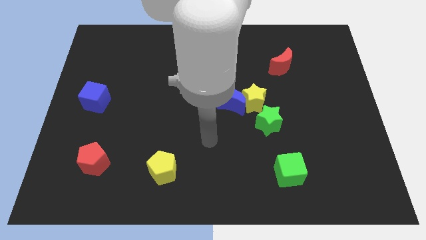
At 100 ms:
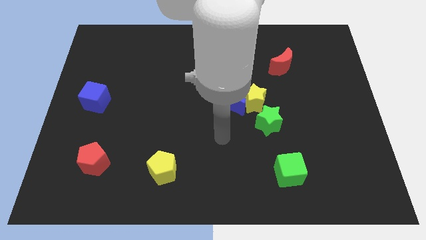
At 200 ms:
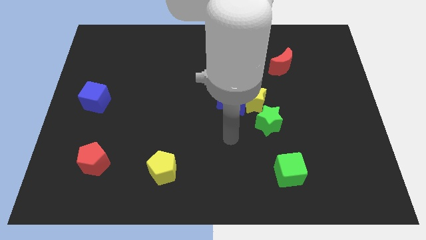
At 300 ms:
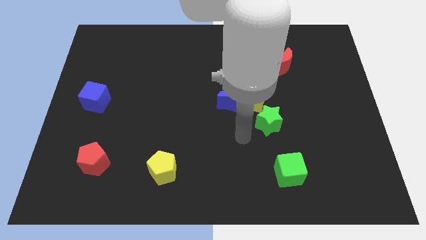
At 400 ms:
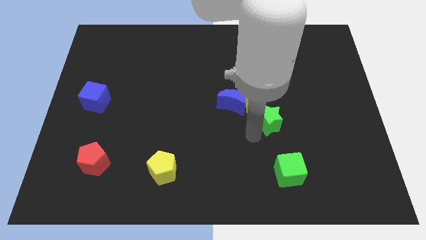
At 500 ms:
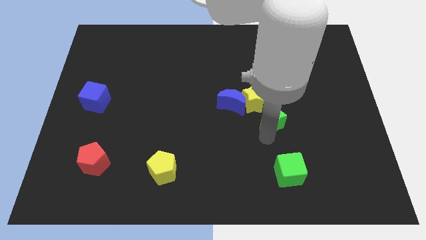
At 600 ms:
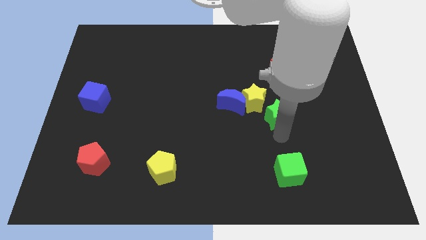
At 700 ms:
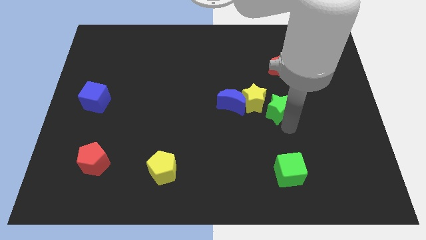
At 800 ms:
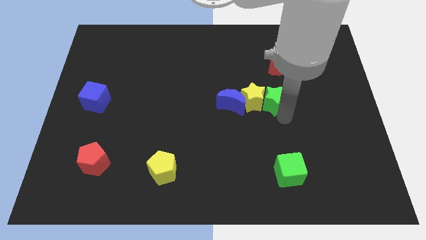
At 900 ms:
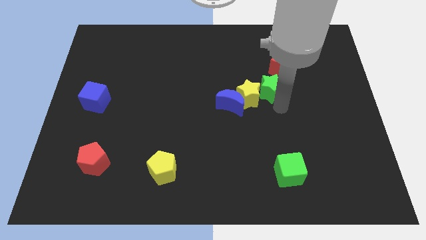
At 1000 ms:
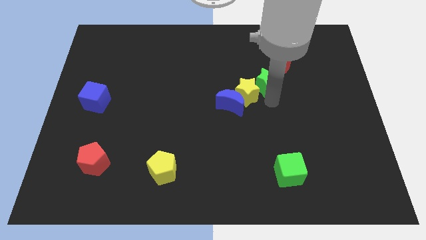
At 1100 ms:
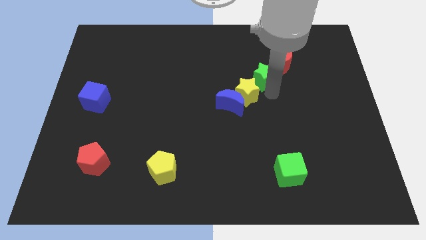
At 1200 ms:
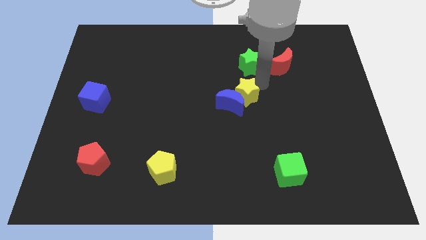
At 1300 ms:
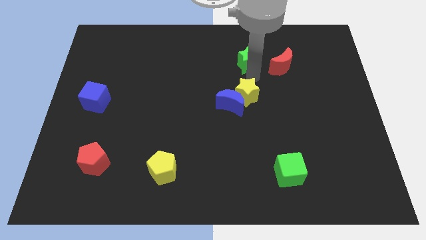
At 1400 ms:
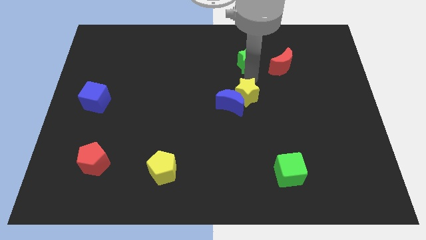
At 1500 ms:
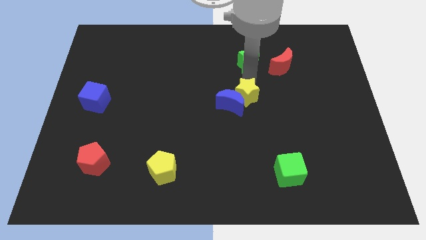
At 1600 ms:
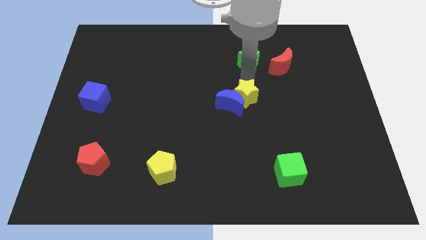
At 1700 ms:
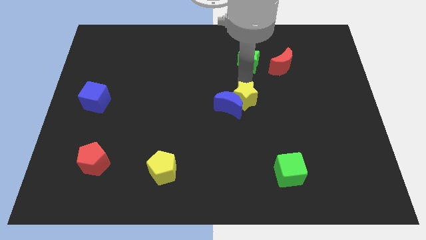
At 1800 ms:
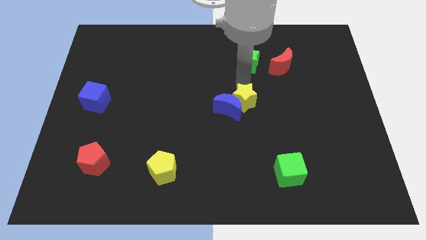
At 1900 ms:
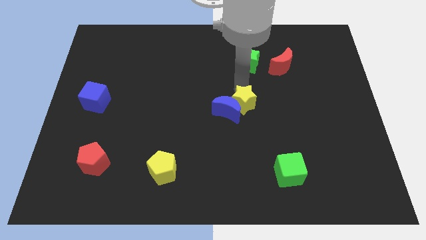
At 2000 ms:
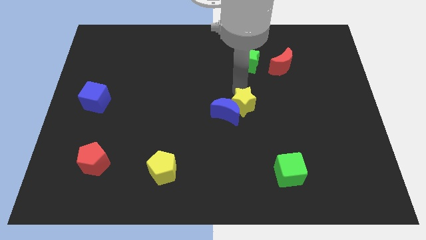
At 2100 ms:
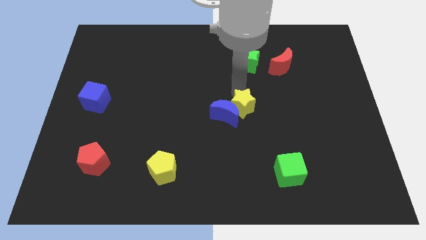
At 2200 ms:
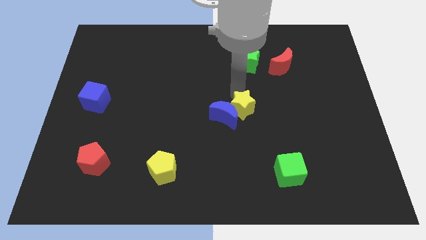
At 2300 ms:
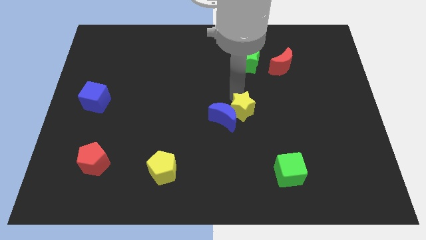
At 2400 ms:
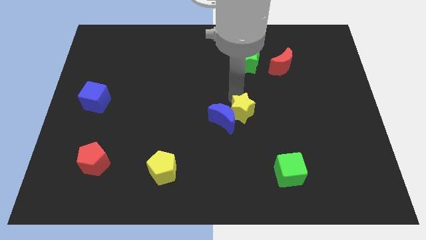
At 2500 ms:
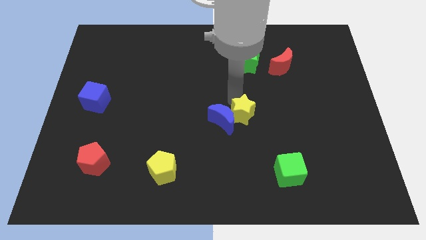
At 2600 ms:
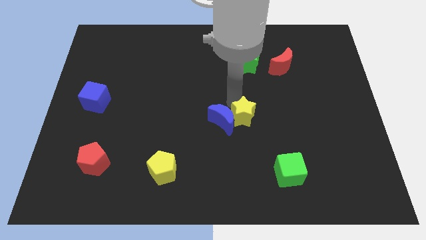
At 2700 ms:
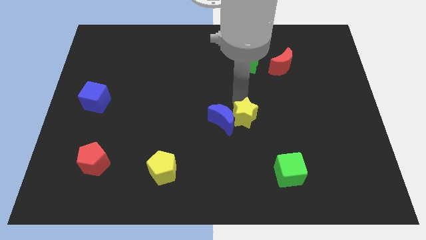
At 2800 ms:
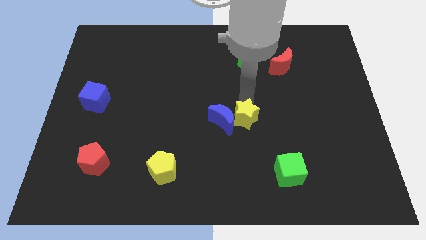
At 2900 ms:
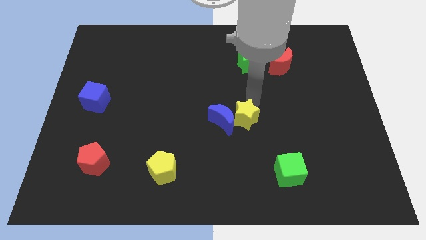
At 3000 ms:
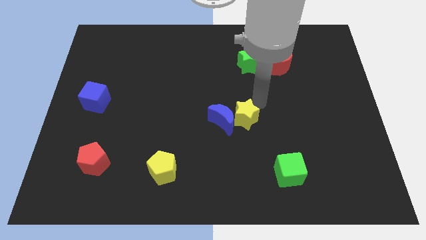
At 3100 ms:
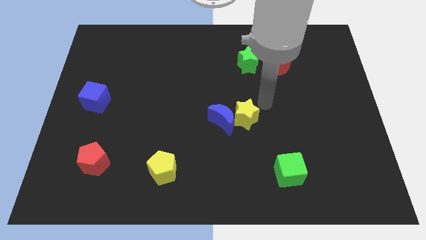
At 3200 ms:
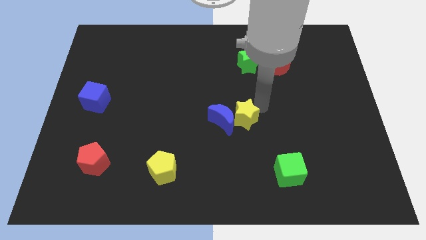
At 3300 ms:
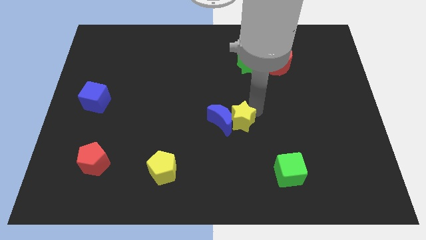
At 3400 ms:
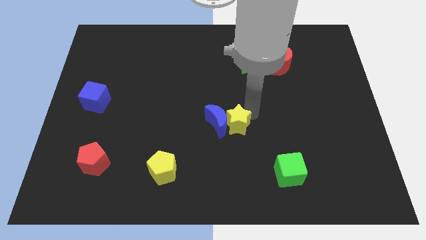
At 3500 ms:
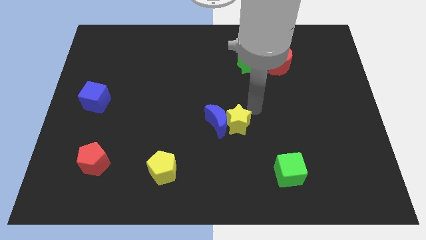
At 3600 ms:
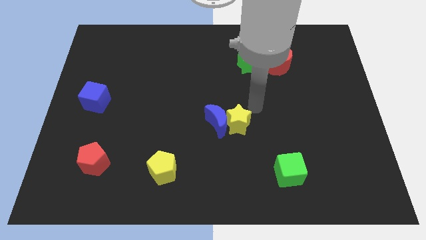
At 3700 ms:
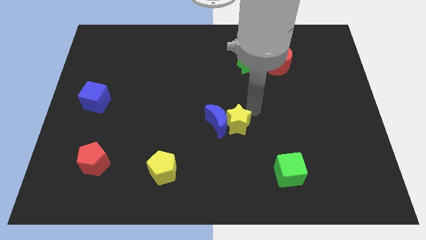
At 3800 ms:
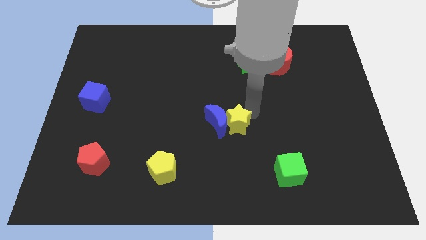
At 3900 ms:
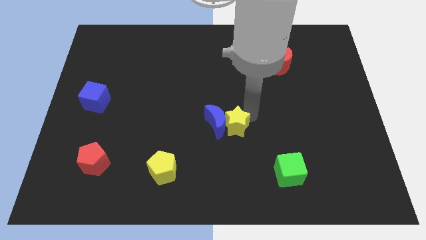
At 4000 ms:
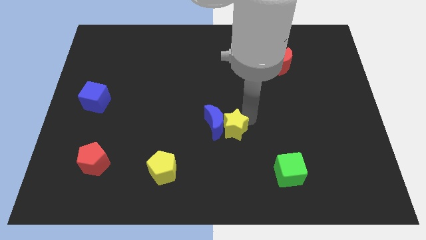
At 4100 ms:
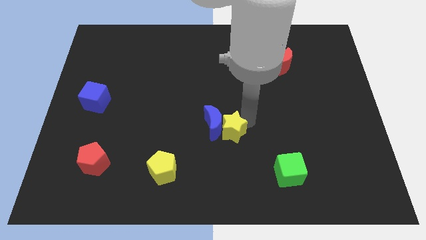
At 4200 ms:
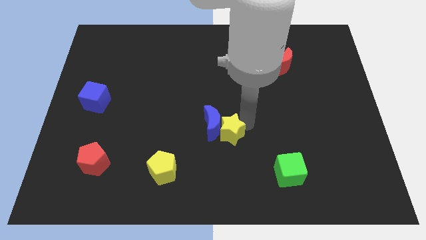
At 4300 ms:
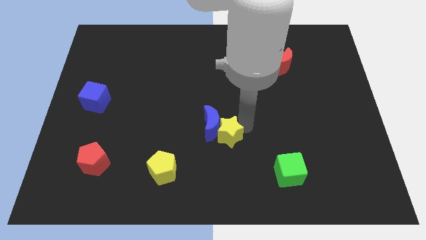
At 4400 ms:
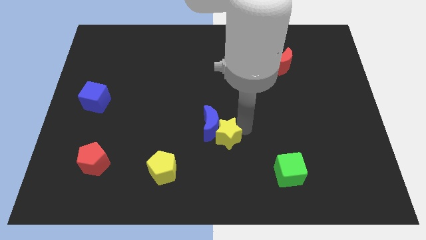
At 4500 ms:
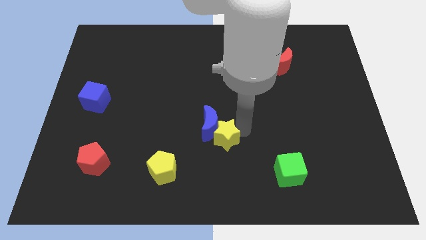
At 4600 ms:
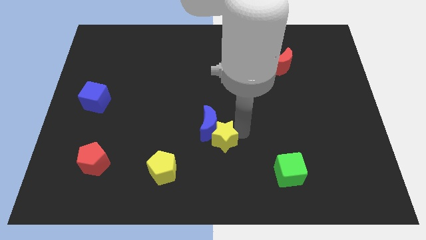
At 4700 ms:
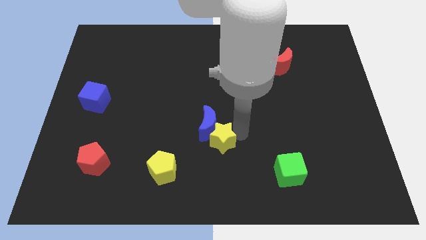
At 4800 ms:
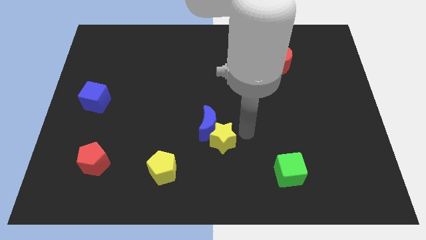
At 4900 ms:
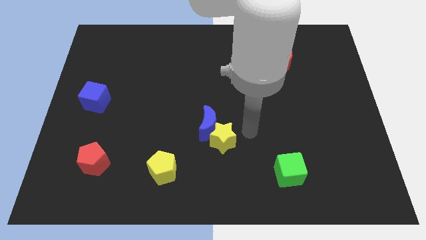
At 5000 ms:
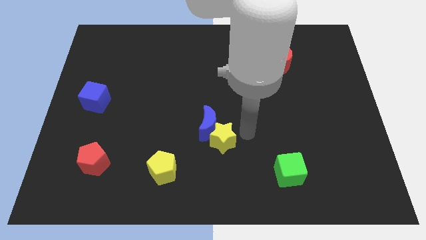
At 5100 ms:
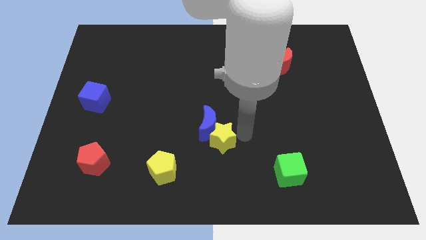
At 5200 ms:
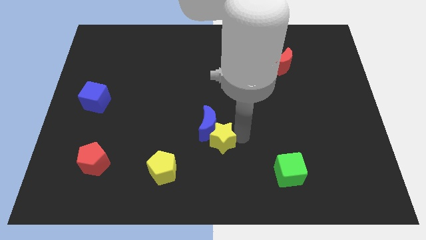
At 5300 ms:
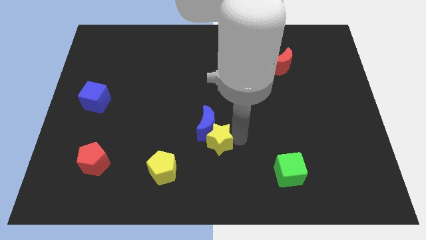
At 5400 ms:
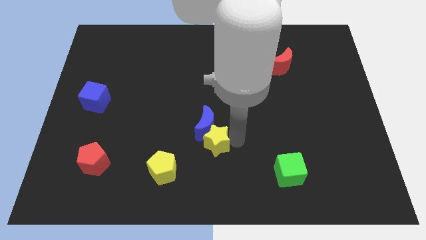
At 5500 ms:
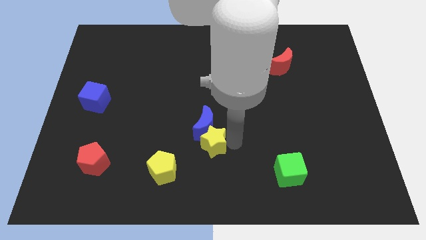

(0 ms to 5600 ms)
push the yellow star diagonally up and to the right of the yellow pentagon

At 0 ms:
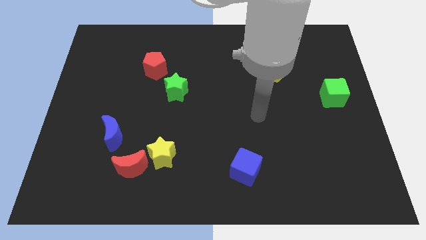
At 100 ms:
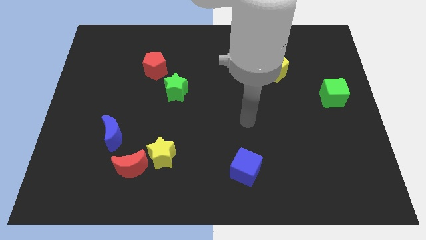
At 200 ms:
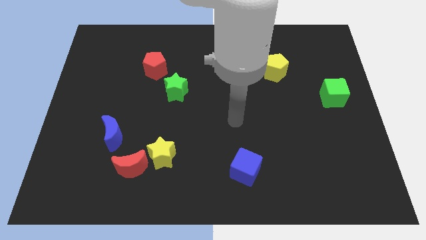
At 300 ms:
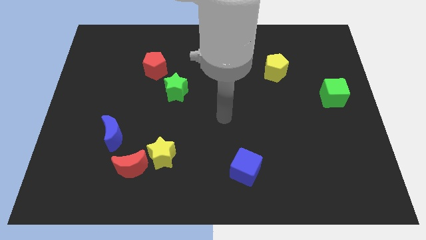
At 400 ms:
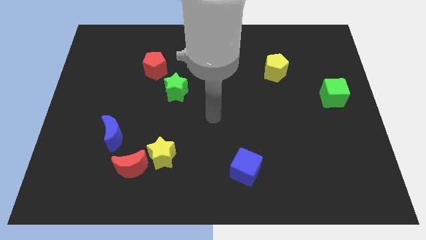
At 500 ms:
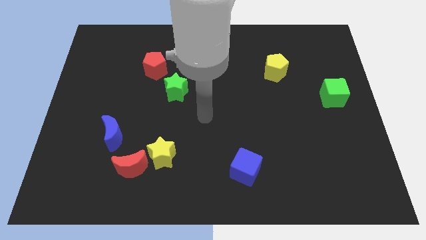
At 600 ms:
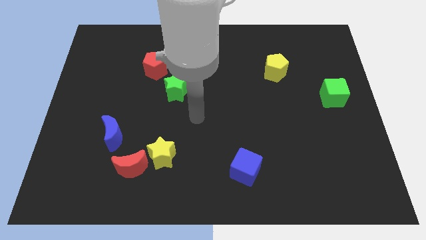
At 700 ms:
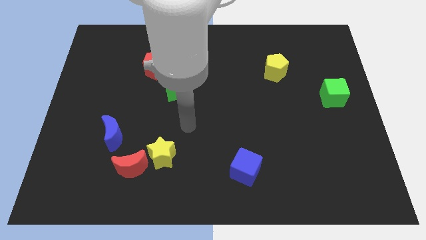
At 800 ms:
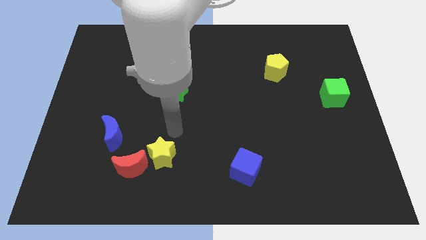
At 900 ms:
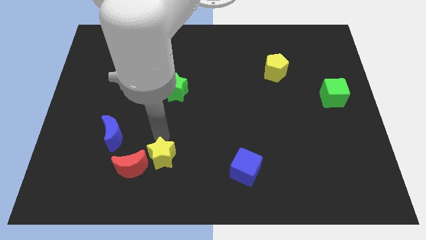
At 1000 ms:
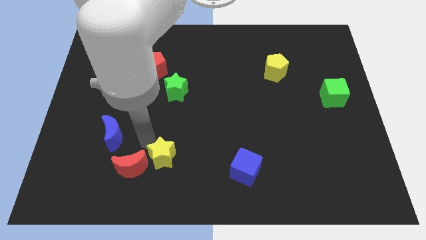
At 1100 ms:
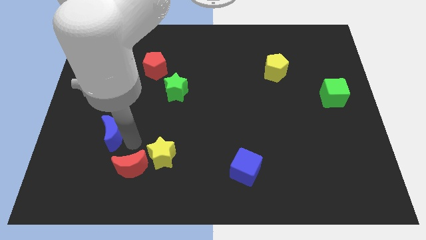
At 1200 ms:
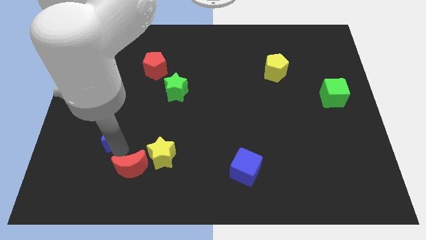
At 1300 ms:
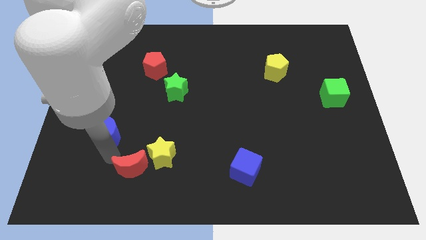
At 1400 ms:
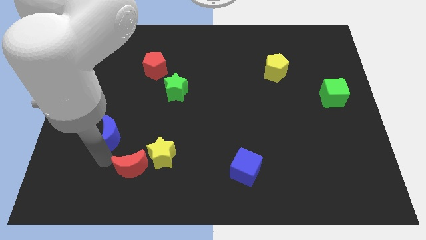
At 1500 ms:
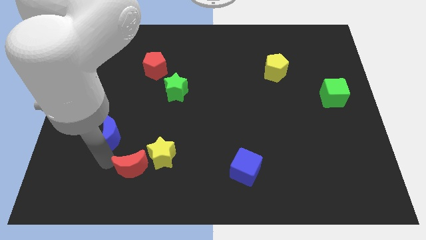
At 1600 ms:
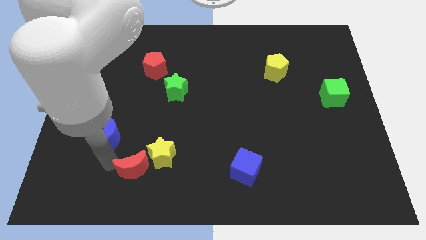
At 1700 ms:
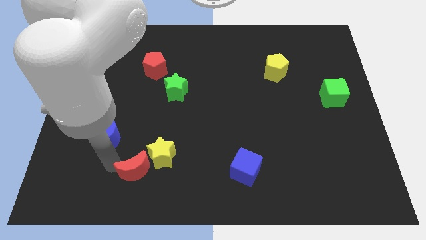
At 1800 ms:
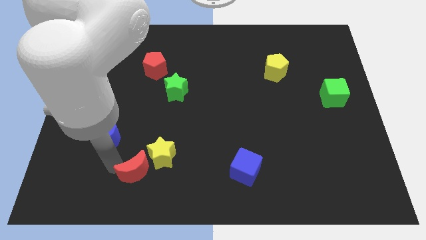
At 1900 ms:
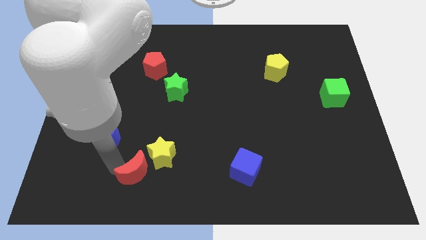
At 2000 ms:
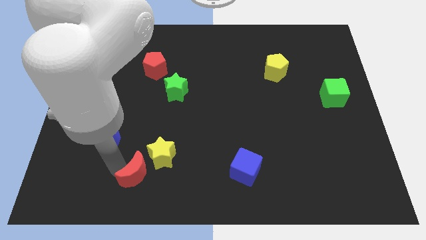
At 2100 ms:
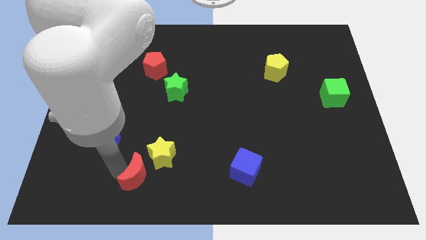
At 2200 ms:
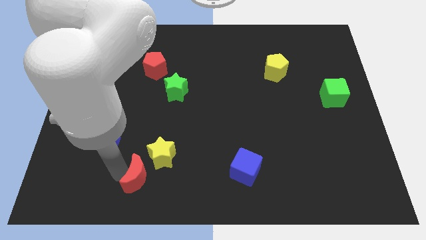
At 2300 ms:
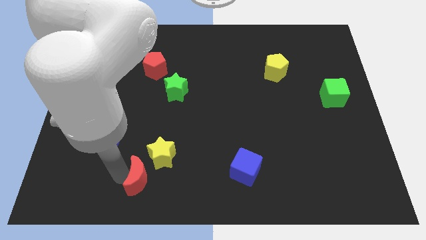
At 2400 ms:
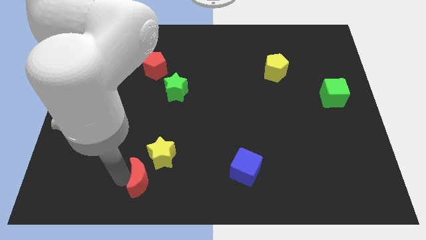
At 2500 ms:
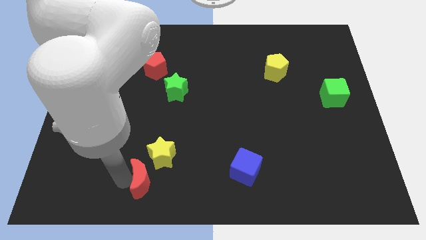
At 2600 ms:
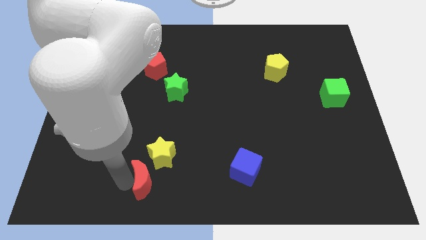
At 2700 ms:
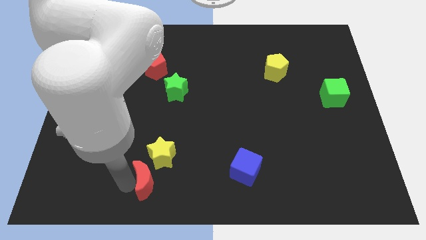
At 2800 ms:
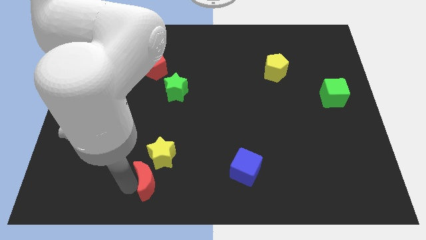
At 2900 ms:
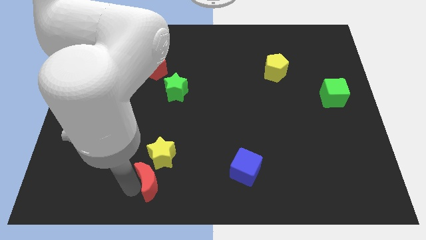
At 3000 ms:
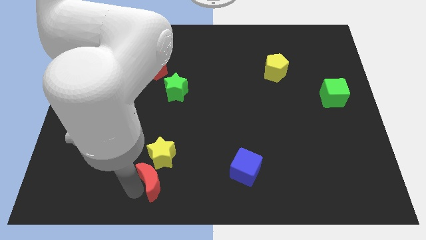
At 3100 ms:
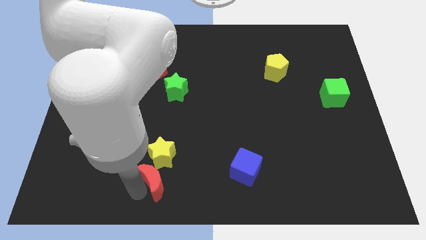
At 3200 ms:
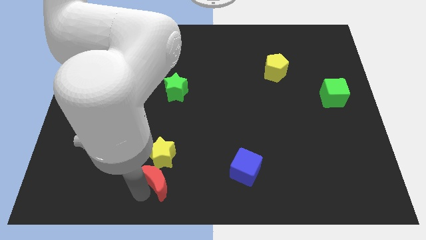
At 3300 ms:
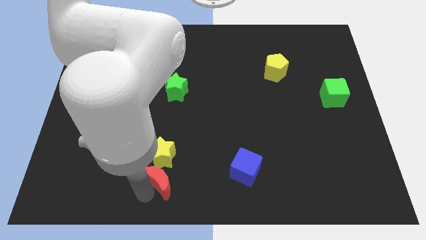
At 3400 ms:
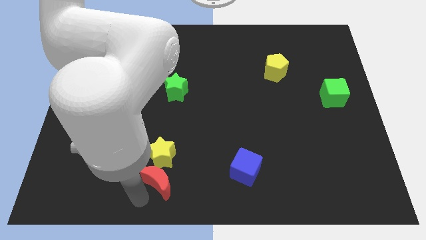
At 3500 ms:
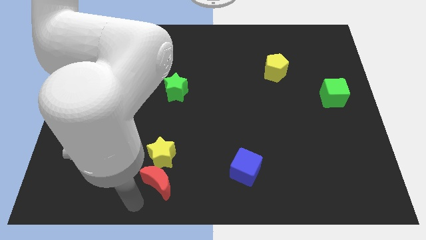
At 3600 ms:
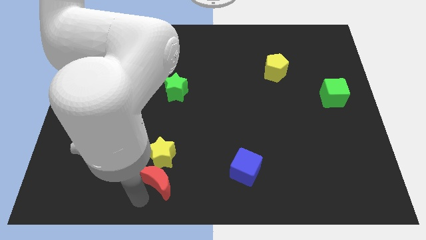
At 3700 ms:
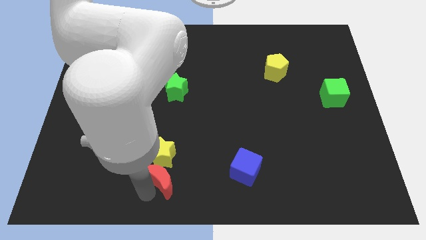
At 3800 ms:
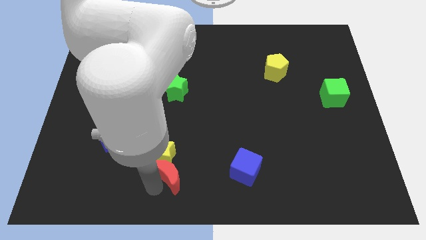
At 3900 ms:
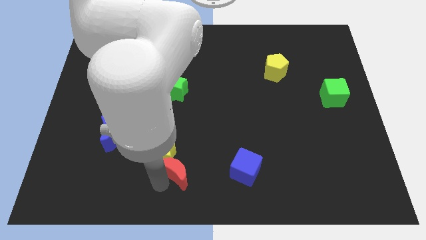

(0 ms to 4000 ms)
push the red moon right of the yellow star
